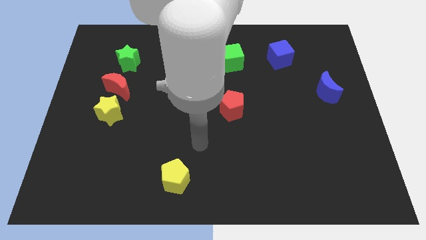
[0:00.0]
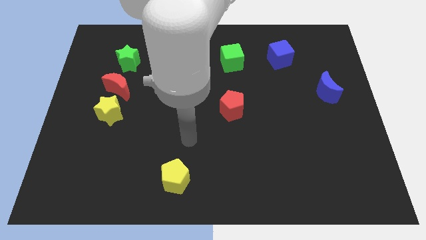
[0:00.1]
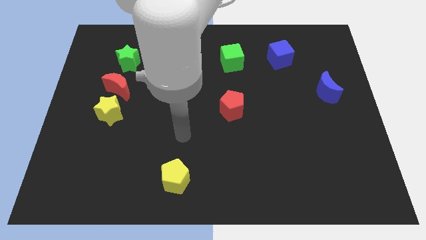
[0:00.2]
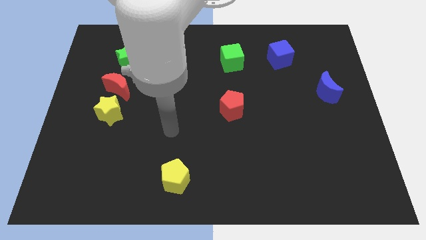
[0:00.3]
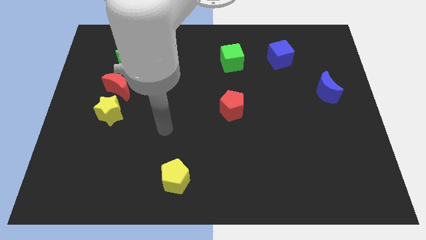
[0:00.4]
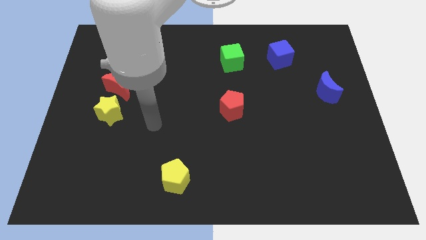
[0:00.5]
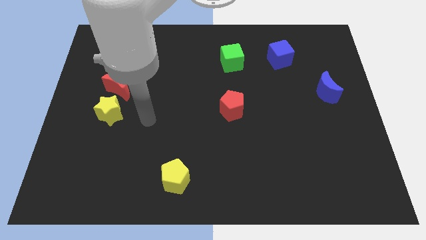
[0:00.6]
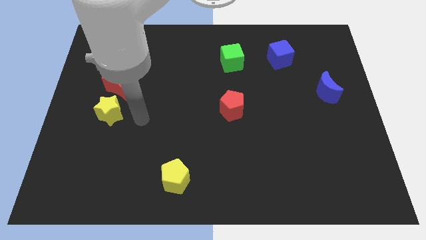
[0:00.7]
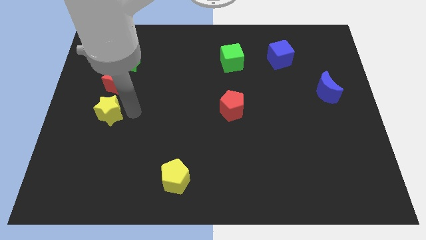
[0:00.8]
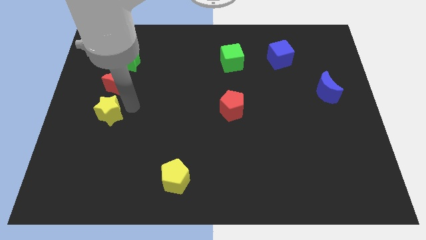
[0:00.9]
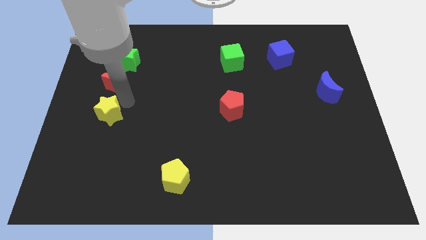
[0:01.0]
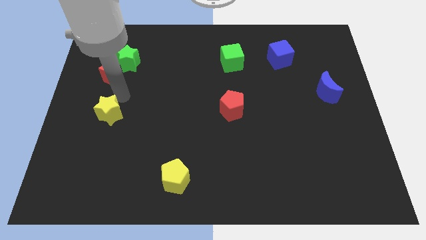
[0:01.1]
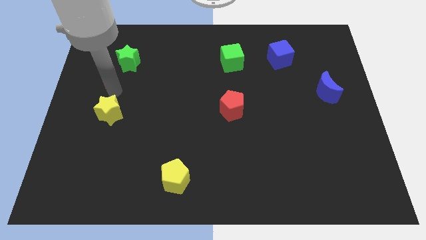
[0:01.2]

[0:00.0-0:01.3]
separate the yellow star from the red moon

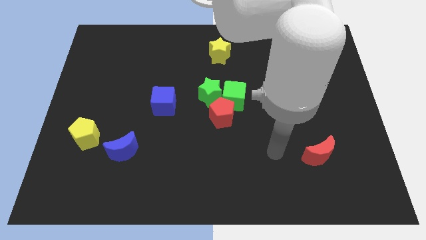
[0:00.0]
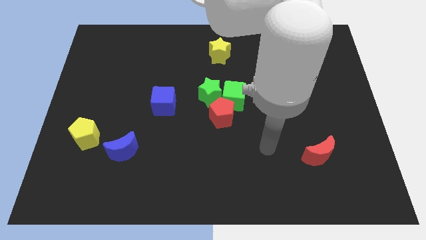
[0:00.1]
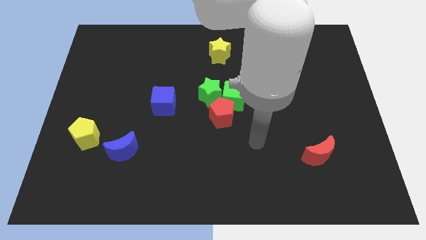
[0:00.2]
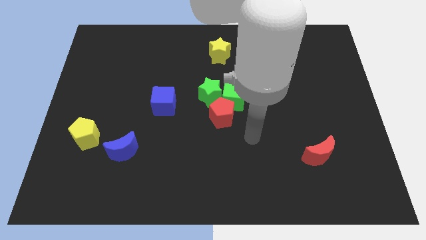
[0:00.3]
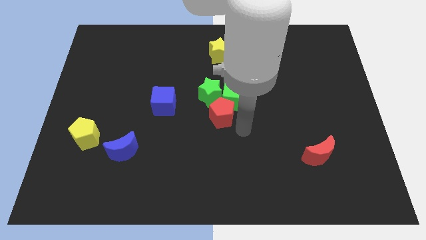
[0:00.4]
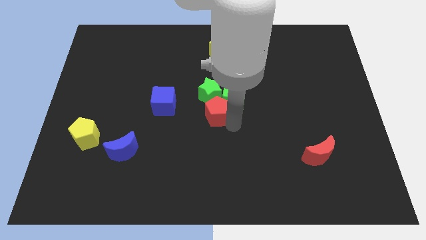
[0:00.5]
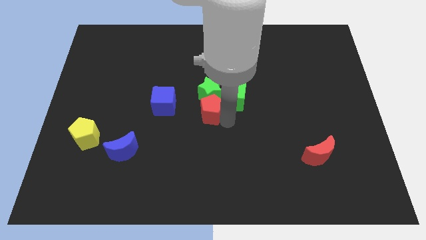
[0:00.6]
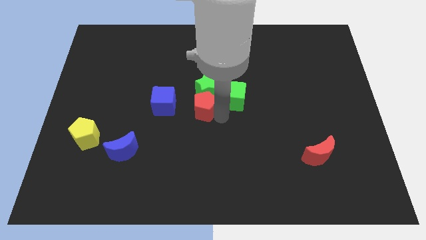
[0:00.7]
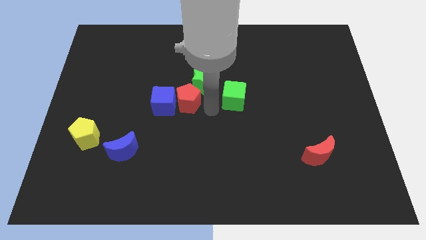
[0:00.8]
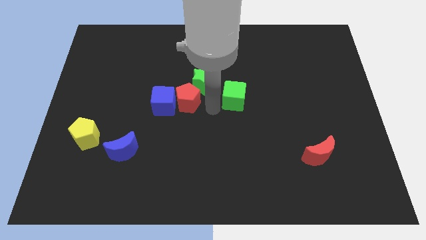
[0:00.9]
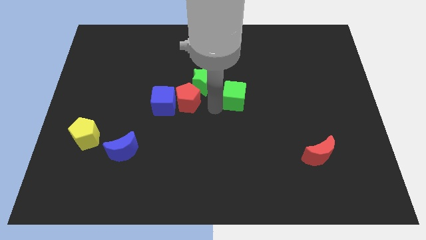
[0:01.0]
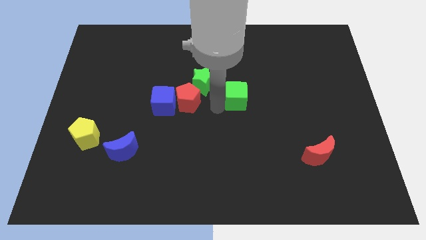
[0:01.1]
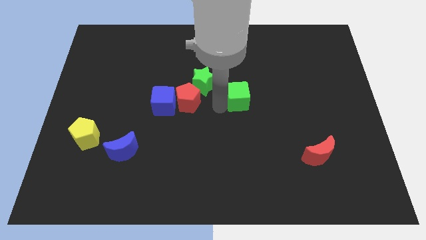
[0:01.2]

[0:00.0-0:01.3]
move the green cube away from the green star and red pentagon

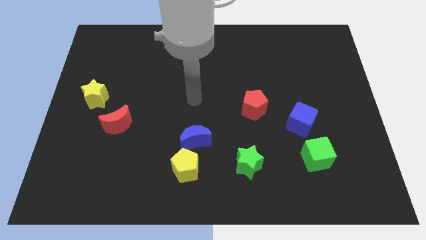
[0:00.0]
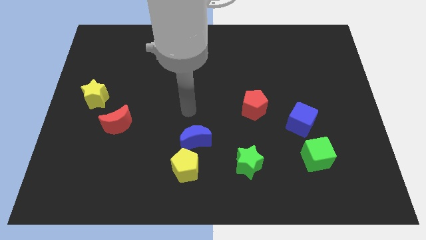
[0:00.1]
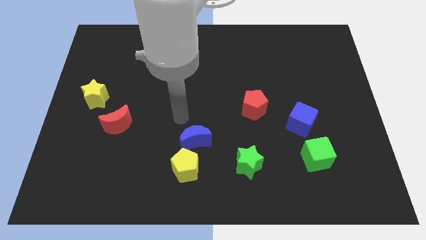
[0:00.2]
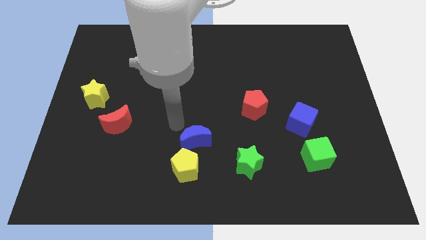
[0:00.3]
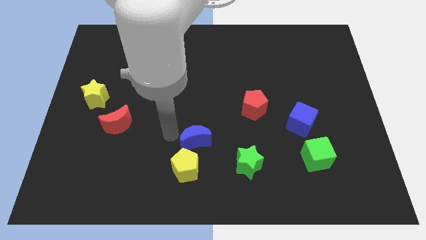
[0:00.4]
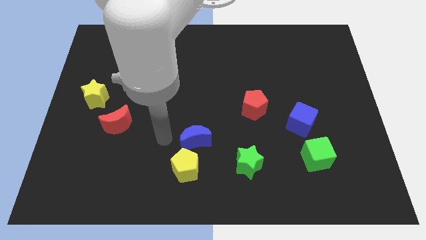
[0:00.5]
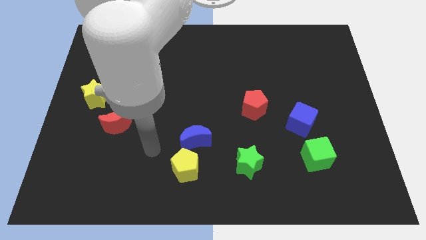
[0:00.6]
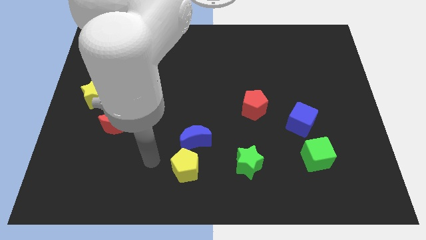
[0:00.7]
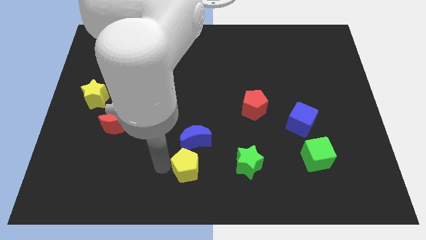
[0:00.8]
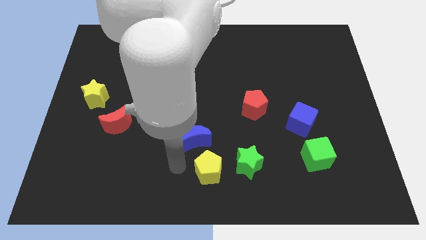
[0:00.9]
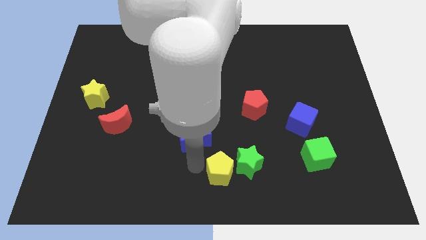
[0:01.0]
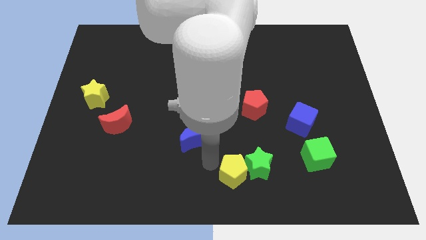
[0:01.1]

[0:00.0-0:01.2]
move the blue moon away from the yellow pentagon

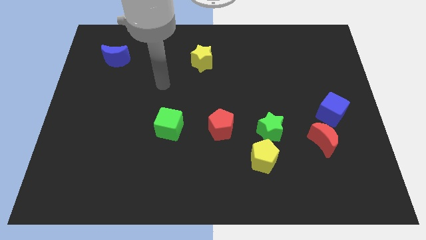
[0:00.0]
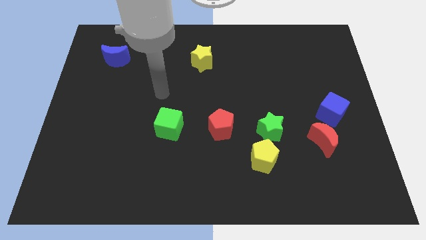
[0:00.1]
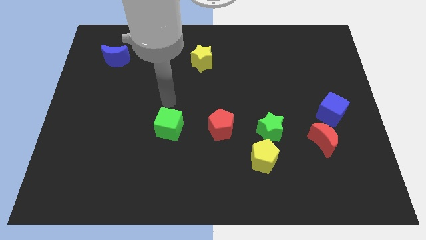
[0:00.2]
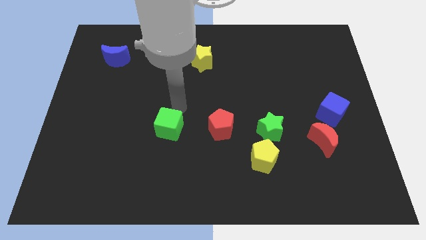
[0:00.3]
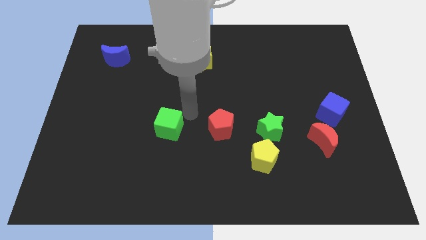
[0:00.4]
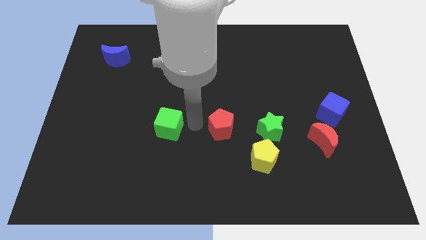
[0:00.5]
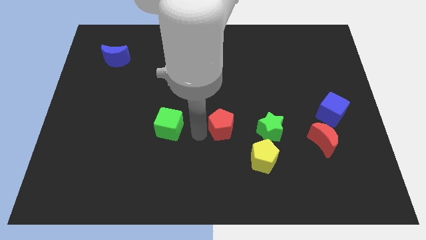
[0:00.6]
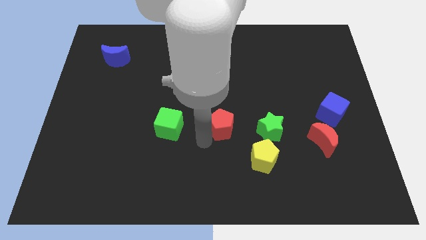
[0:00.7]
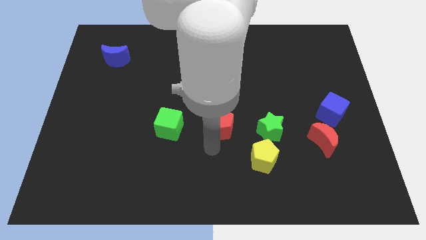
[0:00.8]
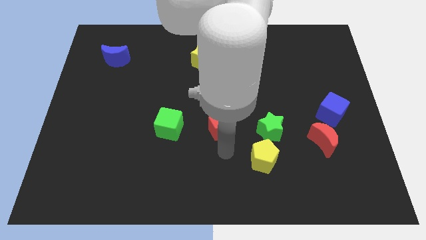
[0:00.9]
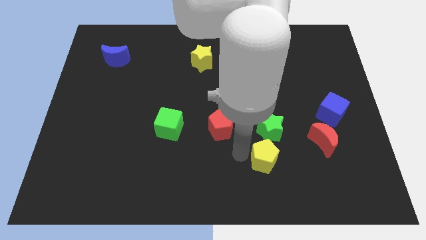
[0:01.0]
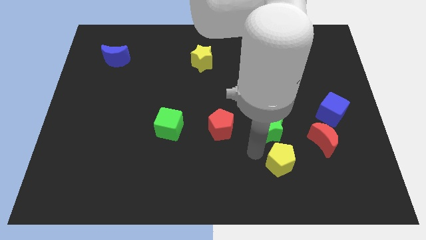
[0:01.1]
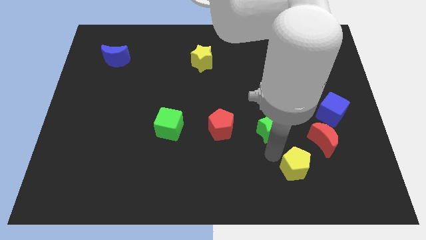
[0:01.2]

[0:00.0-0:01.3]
pull the green star apart from the yellow pentagon

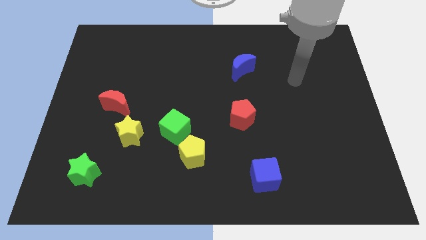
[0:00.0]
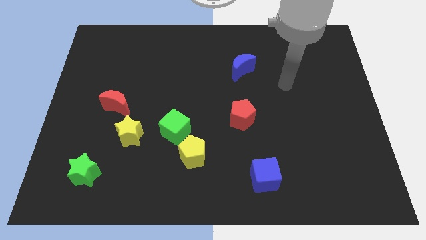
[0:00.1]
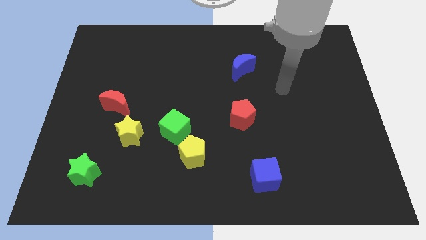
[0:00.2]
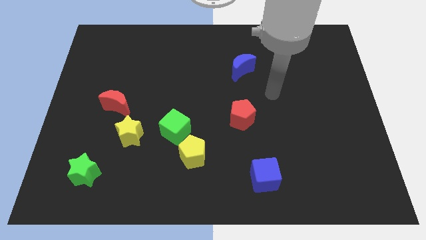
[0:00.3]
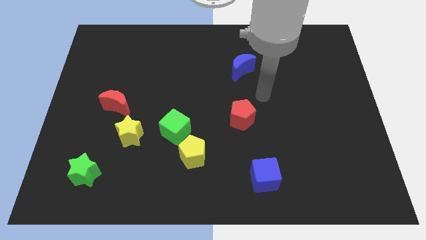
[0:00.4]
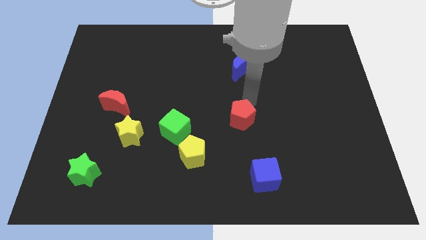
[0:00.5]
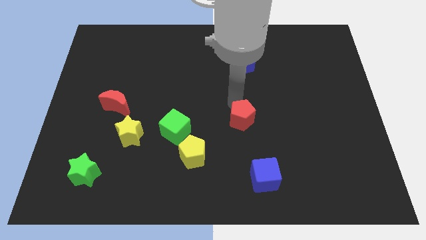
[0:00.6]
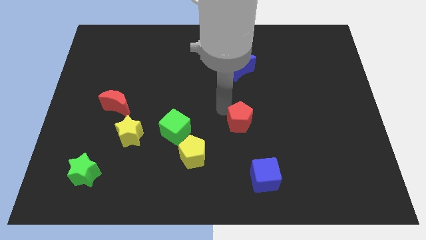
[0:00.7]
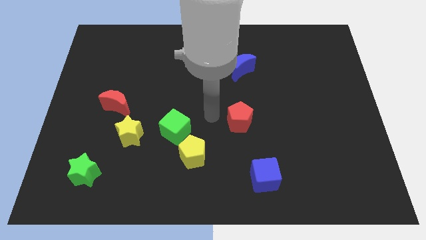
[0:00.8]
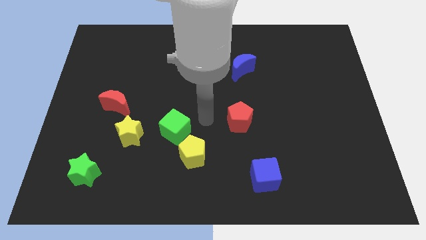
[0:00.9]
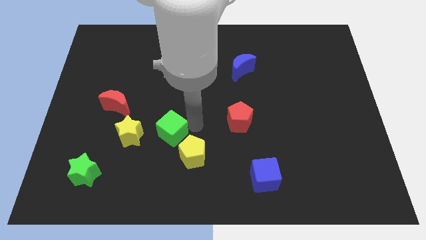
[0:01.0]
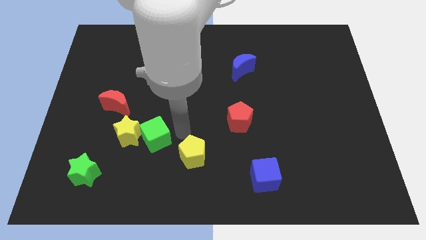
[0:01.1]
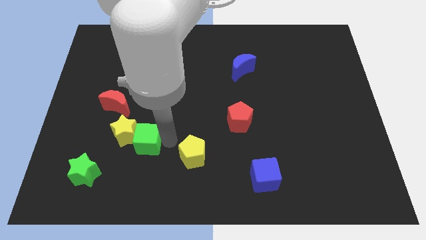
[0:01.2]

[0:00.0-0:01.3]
move the yellow pentagon away from the green cube

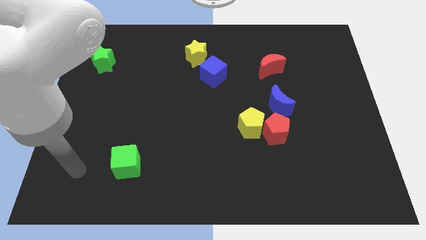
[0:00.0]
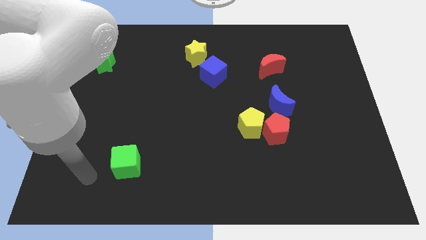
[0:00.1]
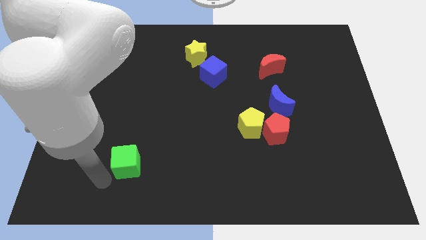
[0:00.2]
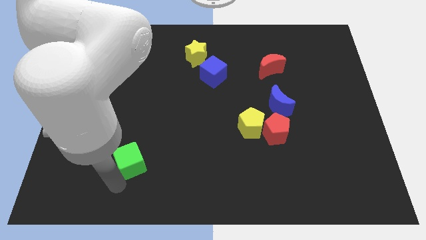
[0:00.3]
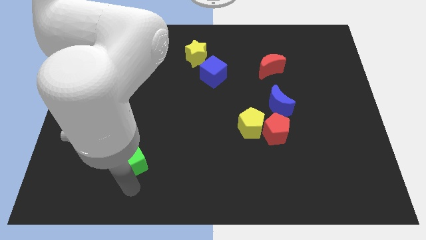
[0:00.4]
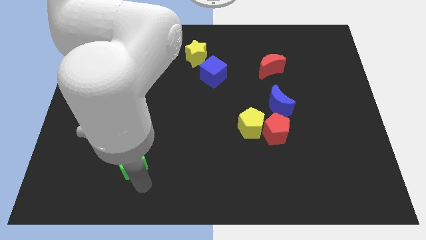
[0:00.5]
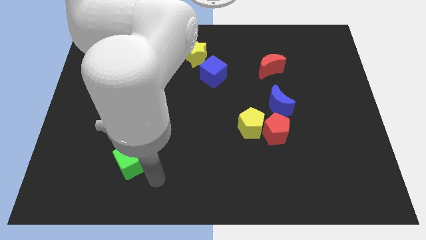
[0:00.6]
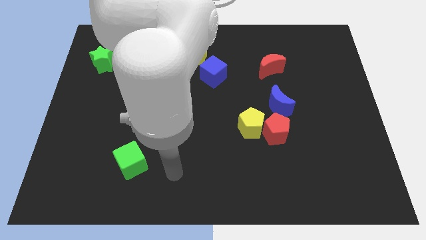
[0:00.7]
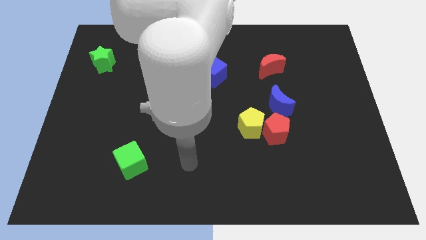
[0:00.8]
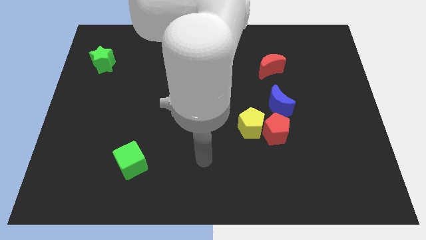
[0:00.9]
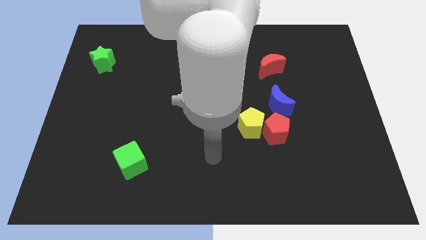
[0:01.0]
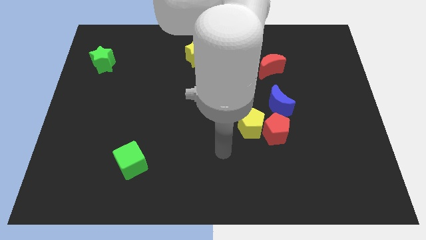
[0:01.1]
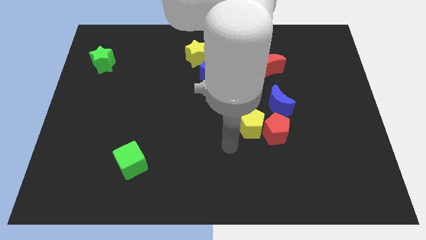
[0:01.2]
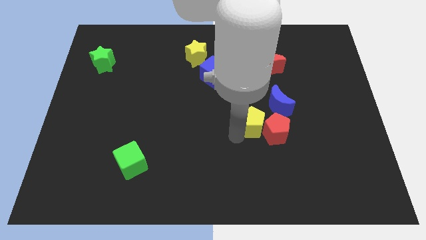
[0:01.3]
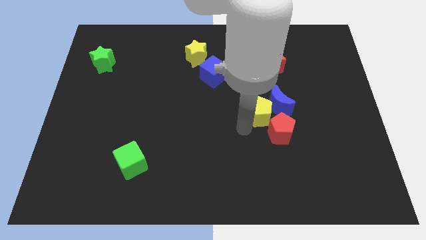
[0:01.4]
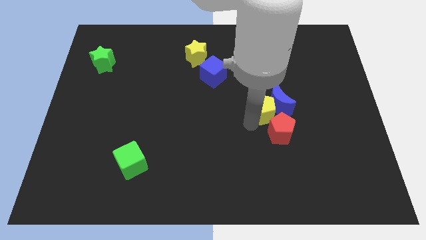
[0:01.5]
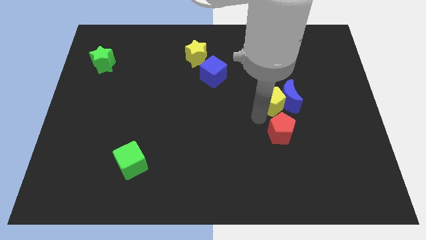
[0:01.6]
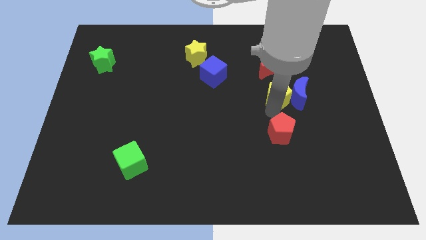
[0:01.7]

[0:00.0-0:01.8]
separate the red pentagon from the yellow pentagon and blue moon

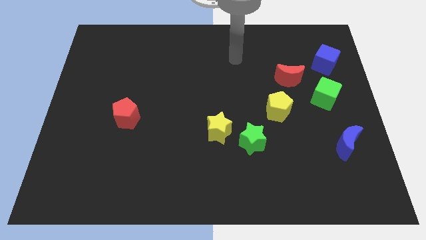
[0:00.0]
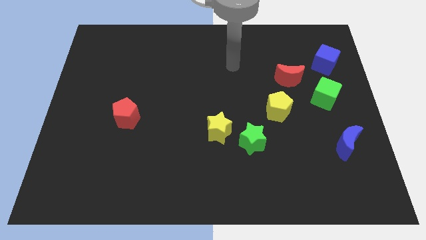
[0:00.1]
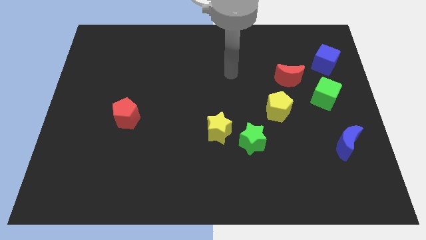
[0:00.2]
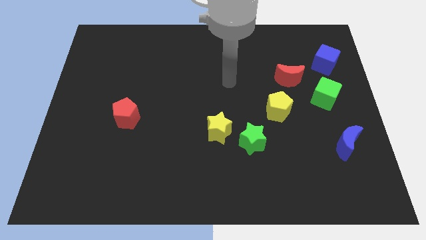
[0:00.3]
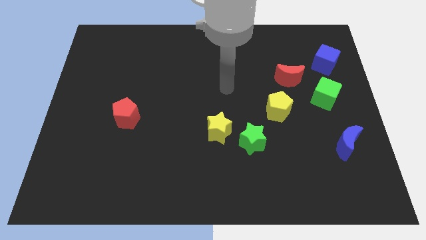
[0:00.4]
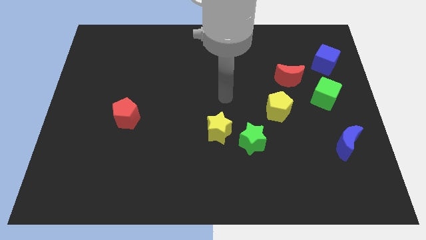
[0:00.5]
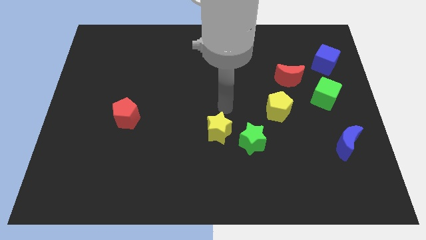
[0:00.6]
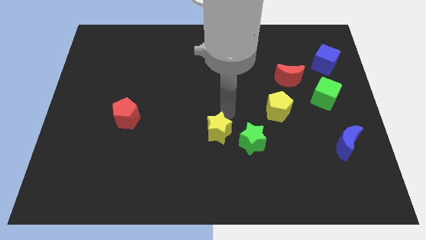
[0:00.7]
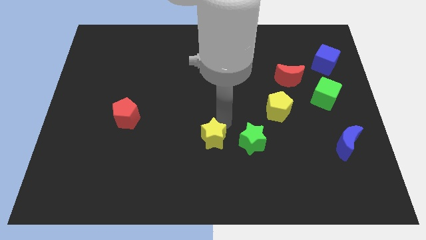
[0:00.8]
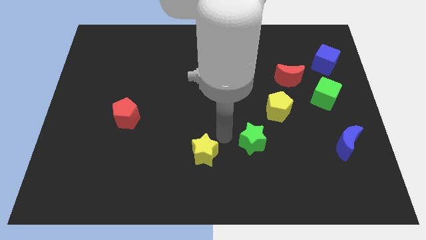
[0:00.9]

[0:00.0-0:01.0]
move the green star away from the yellow star

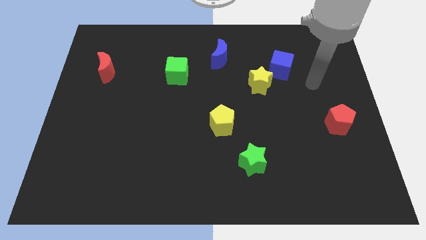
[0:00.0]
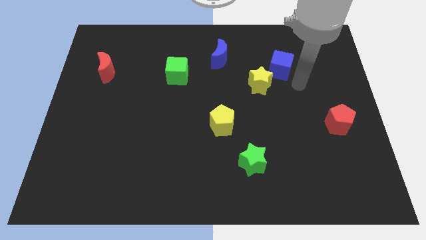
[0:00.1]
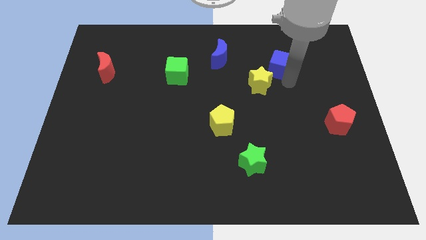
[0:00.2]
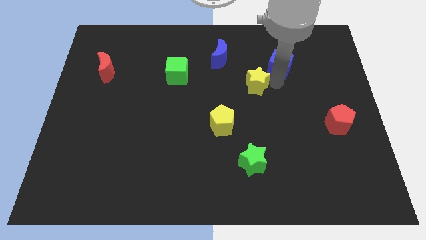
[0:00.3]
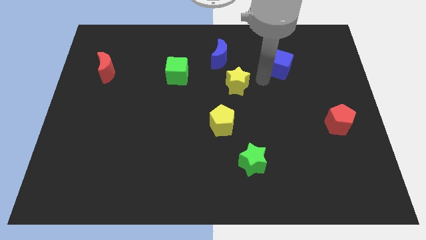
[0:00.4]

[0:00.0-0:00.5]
separate the blue cube from the yellow star
